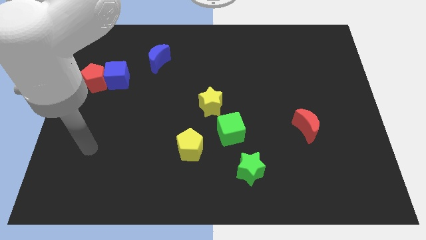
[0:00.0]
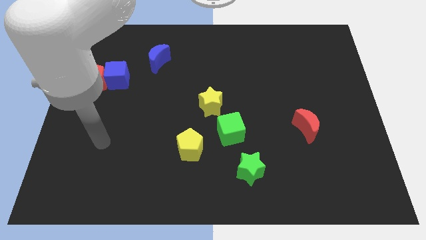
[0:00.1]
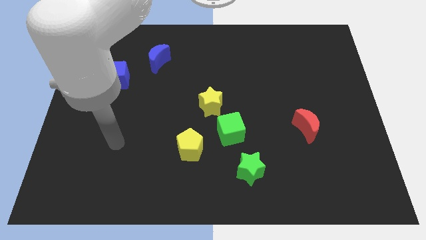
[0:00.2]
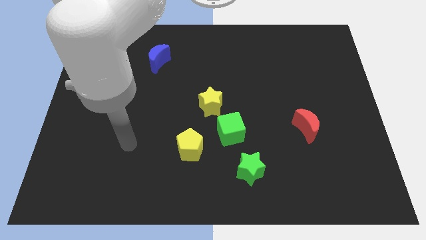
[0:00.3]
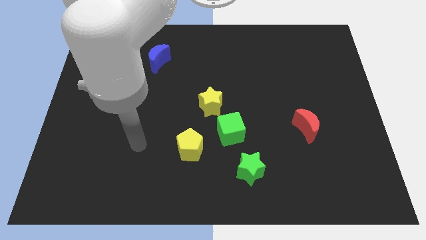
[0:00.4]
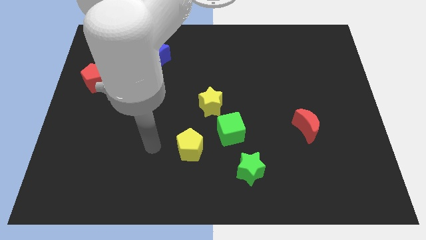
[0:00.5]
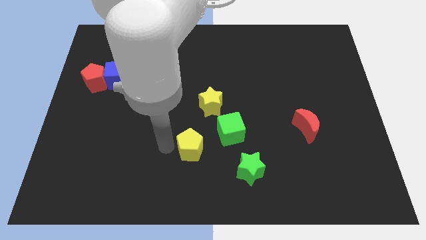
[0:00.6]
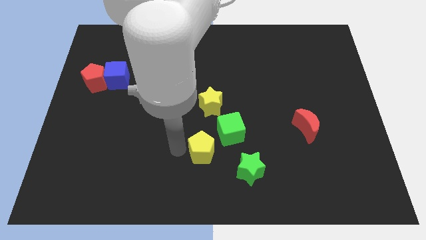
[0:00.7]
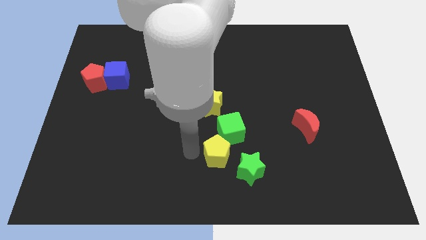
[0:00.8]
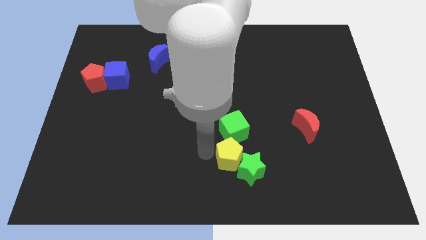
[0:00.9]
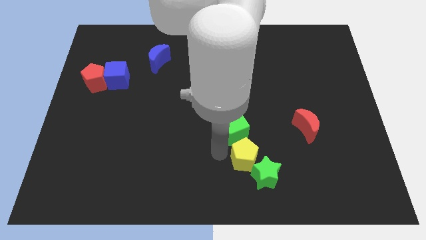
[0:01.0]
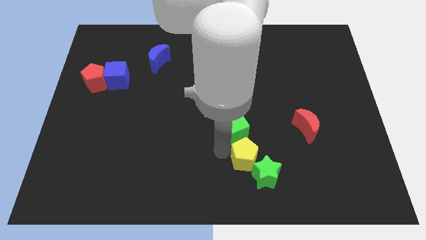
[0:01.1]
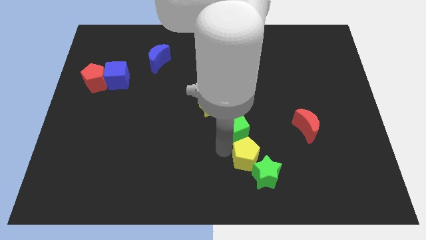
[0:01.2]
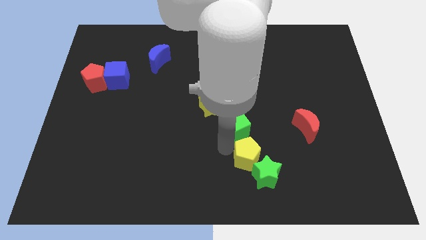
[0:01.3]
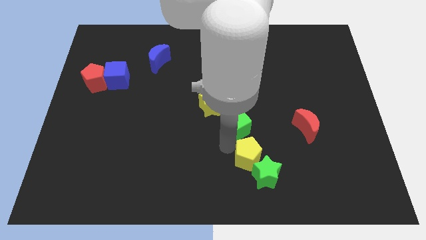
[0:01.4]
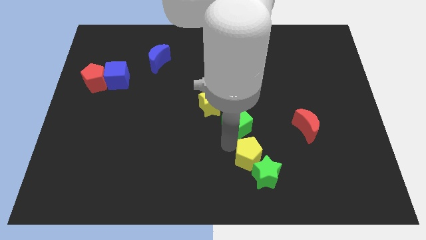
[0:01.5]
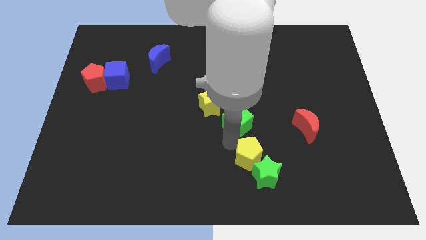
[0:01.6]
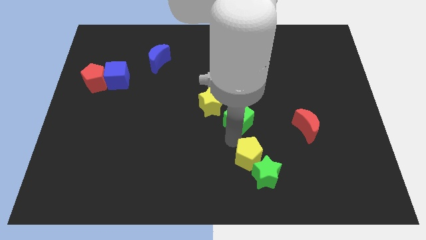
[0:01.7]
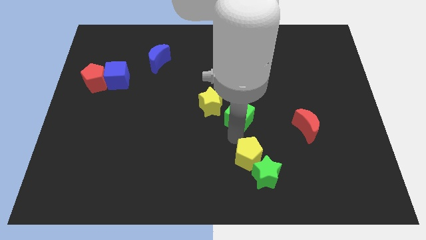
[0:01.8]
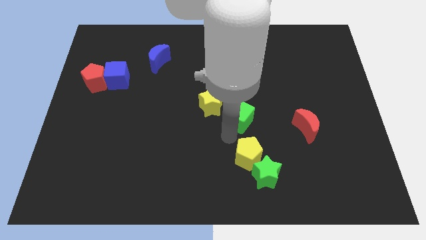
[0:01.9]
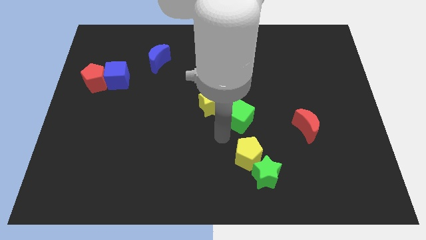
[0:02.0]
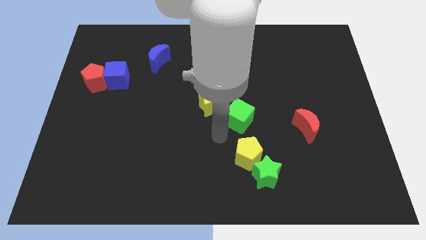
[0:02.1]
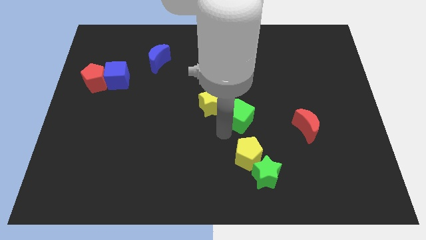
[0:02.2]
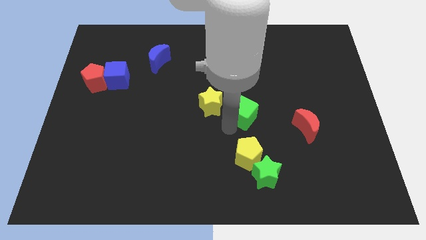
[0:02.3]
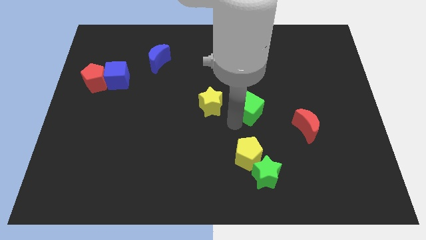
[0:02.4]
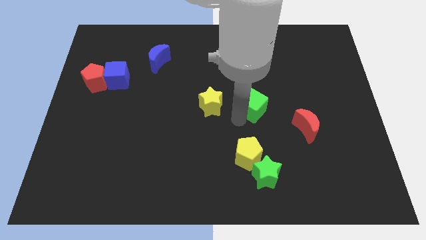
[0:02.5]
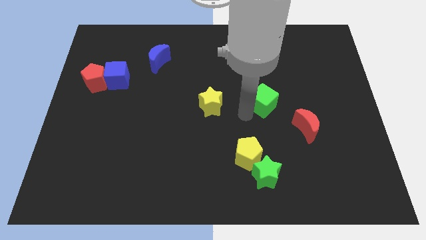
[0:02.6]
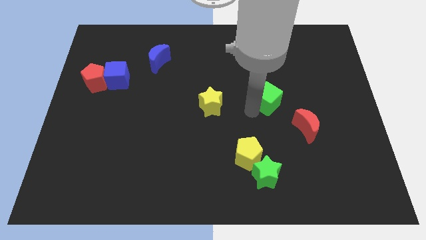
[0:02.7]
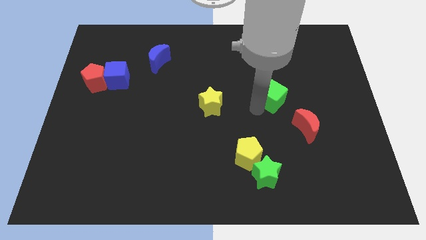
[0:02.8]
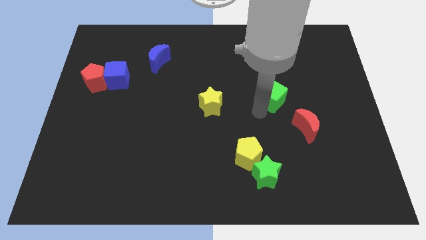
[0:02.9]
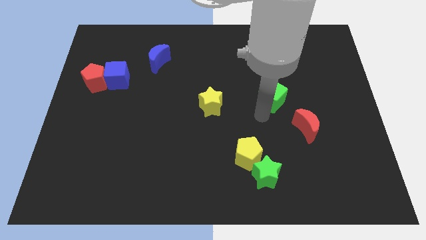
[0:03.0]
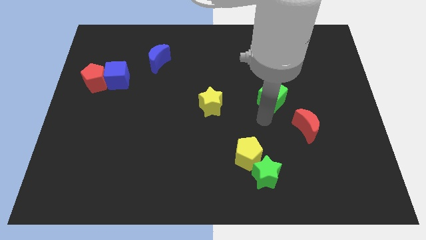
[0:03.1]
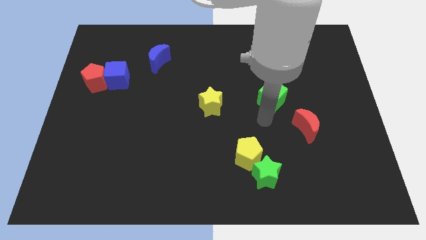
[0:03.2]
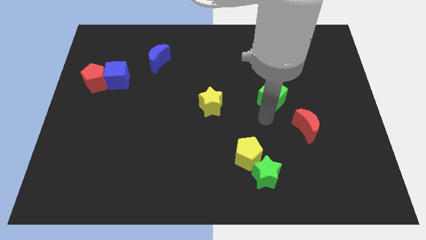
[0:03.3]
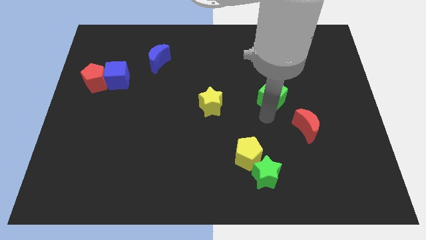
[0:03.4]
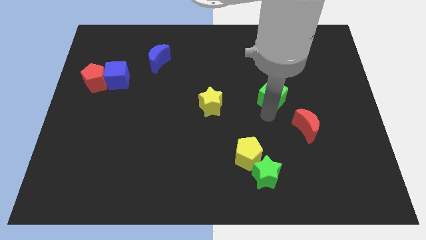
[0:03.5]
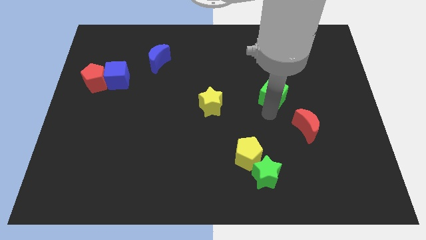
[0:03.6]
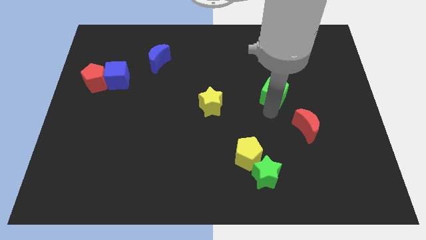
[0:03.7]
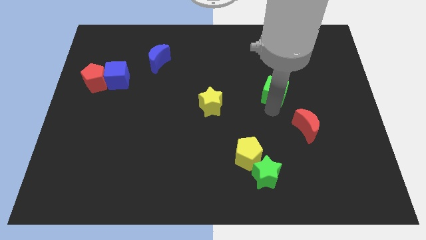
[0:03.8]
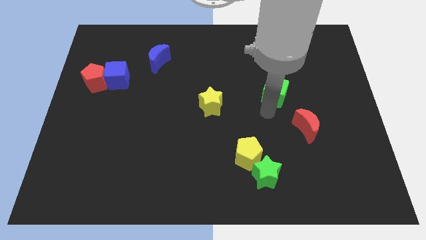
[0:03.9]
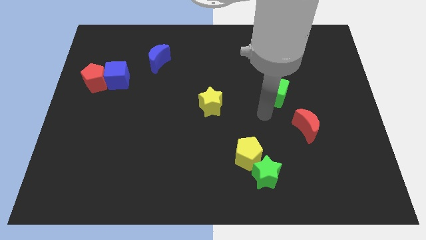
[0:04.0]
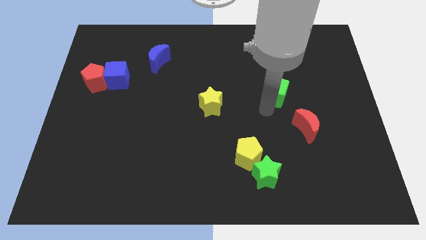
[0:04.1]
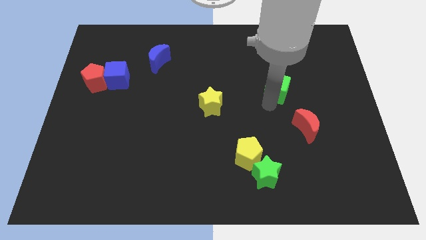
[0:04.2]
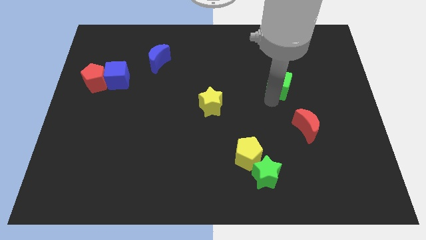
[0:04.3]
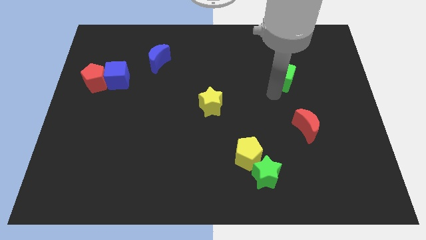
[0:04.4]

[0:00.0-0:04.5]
move the green cube upwards and to the right diagonally

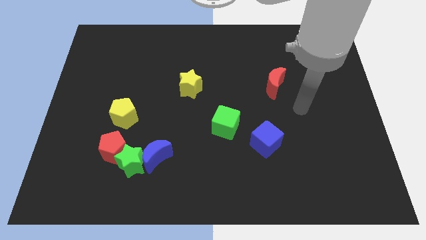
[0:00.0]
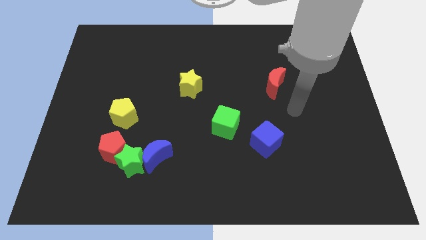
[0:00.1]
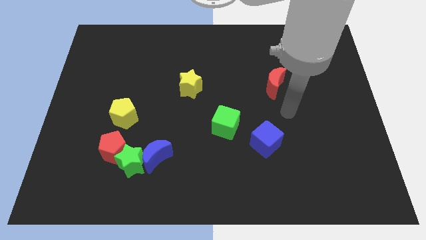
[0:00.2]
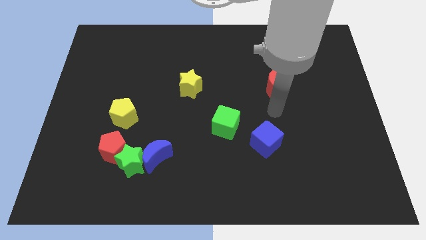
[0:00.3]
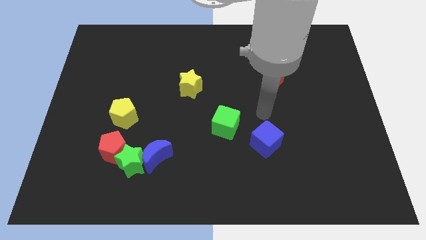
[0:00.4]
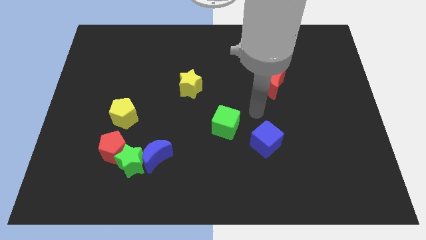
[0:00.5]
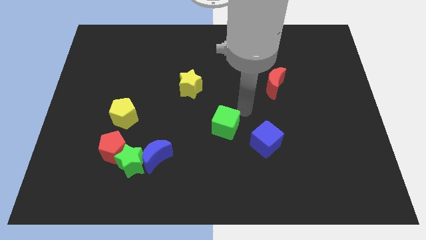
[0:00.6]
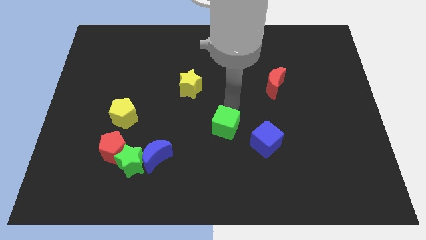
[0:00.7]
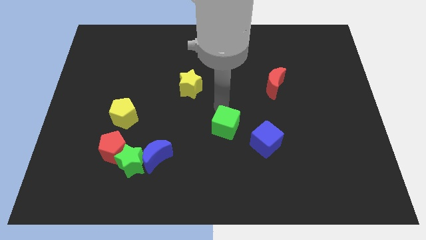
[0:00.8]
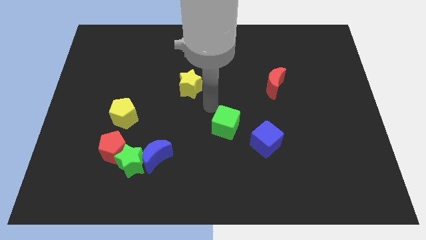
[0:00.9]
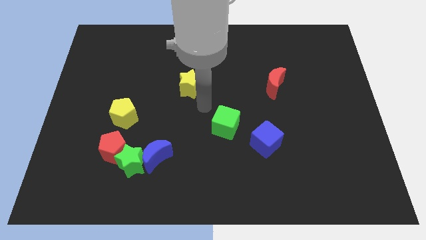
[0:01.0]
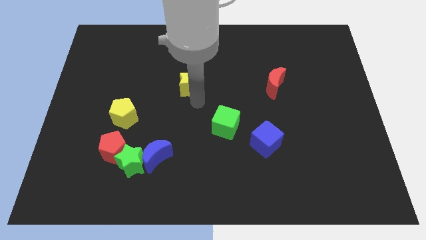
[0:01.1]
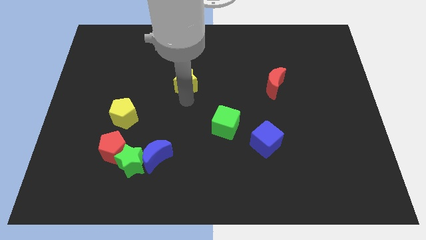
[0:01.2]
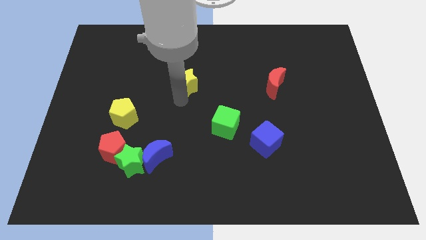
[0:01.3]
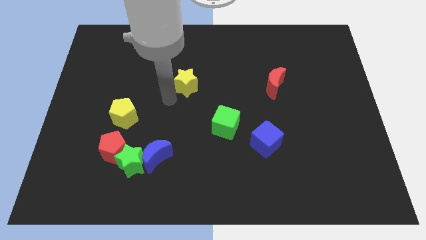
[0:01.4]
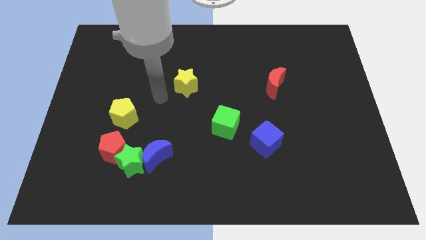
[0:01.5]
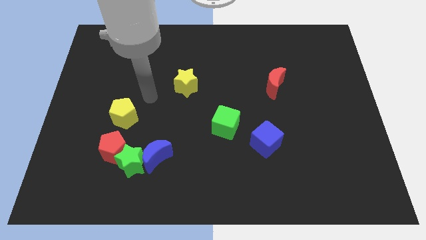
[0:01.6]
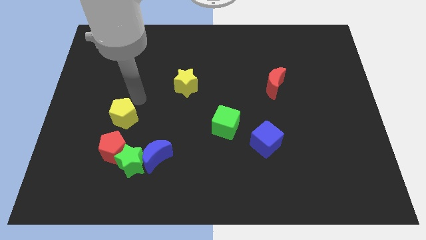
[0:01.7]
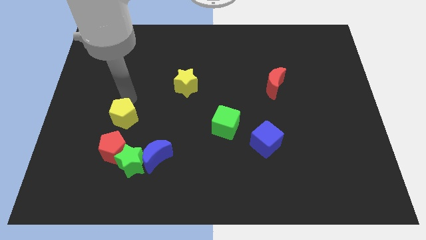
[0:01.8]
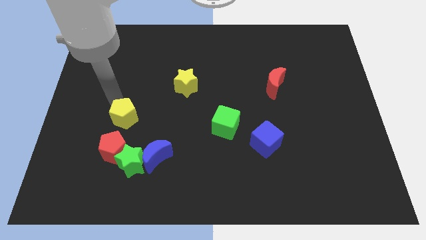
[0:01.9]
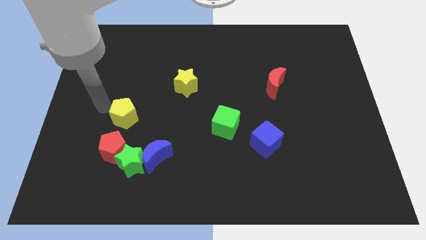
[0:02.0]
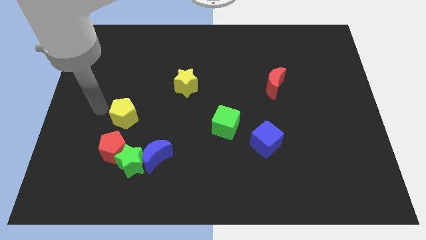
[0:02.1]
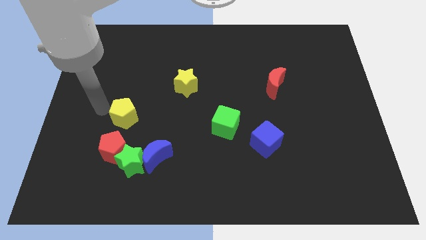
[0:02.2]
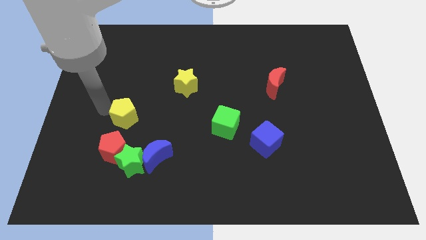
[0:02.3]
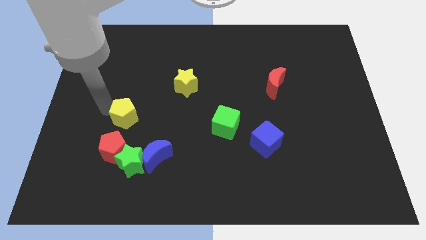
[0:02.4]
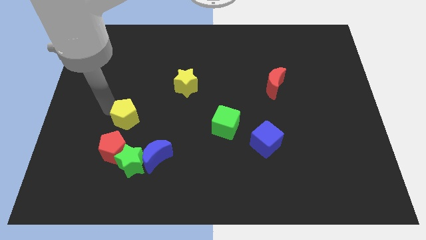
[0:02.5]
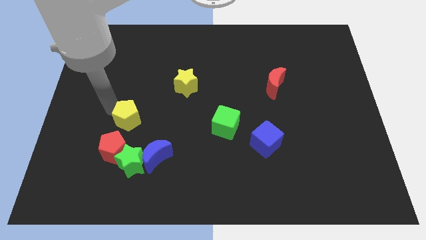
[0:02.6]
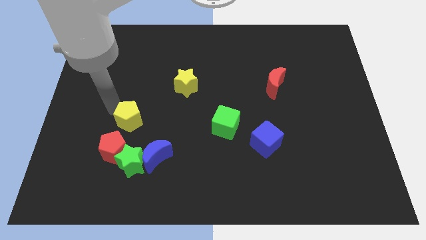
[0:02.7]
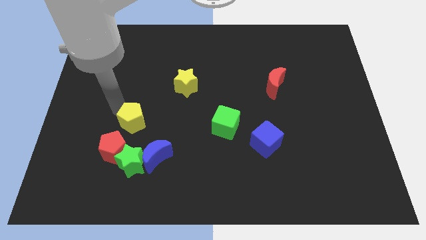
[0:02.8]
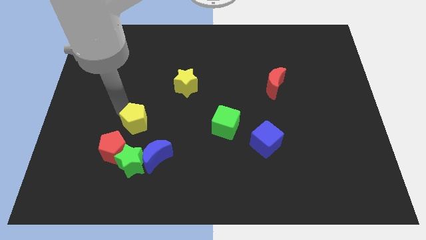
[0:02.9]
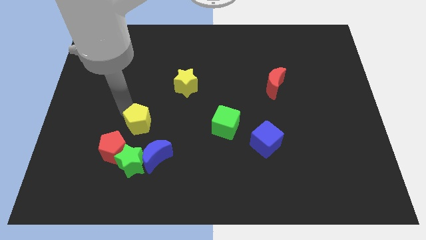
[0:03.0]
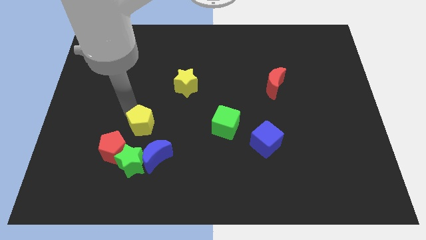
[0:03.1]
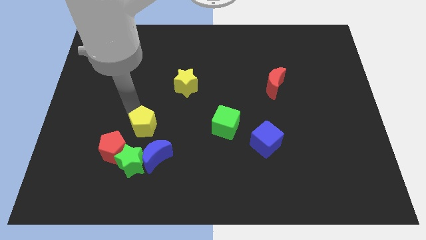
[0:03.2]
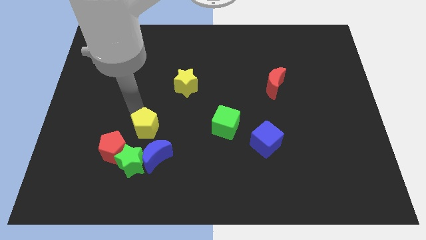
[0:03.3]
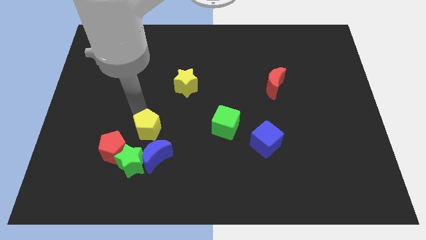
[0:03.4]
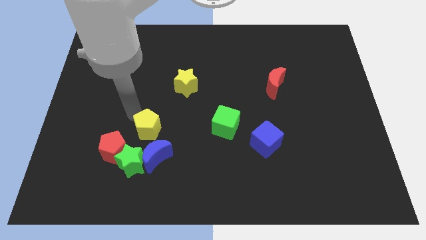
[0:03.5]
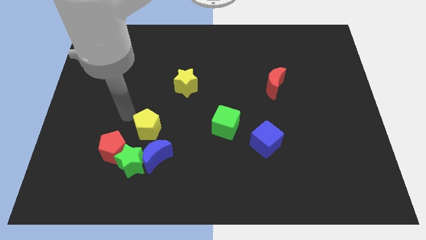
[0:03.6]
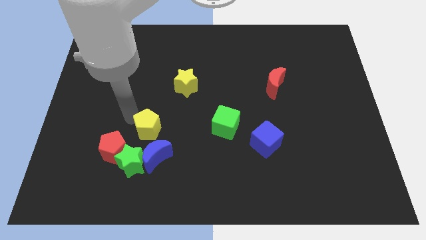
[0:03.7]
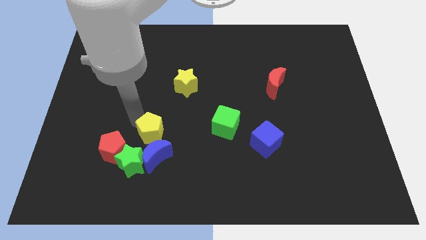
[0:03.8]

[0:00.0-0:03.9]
slightly push the yellow pentagon down and then to the right
